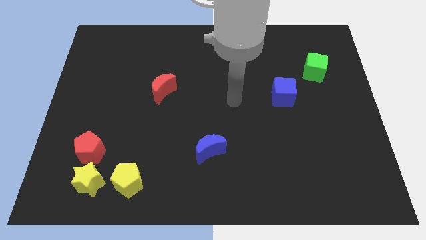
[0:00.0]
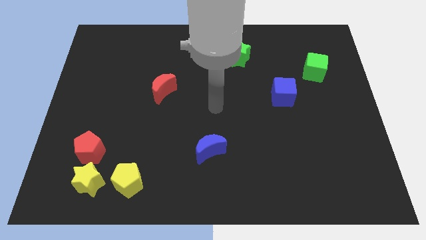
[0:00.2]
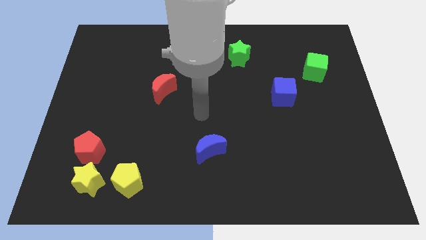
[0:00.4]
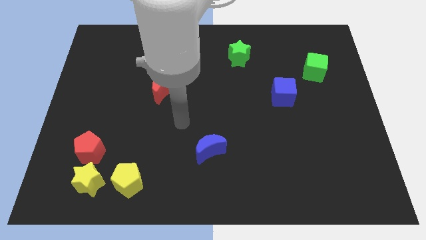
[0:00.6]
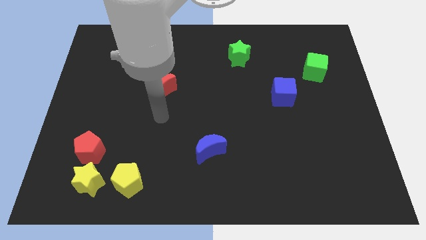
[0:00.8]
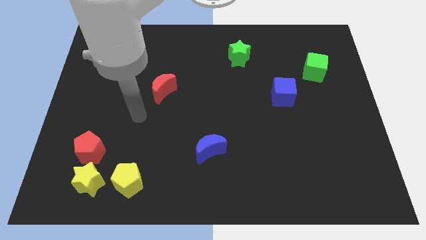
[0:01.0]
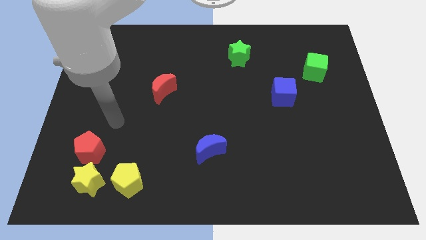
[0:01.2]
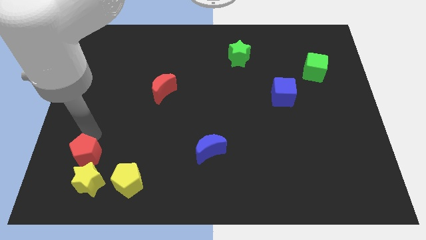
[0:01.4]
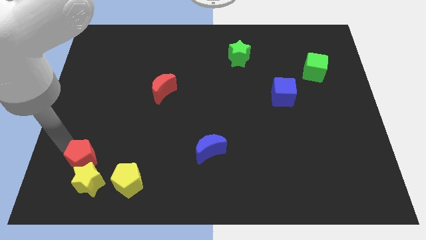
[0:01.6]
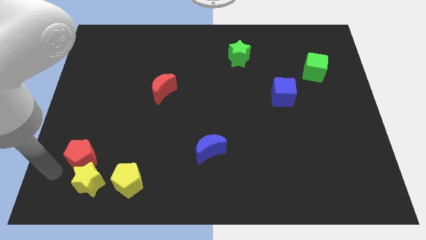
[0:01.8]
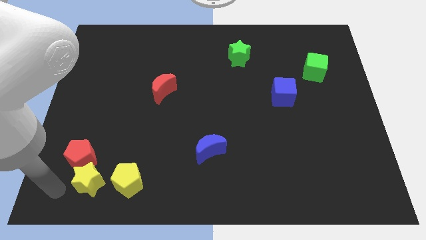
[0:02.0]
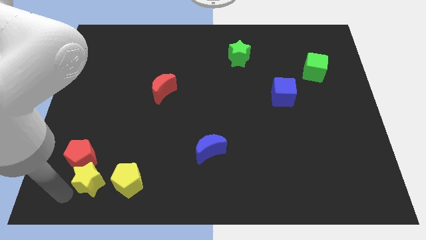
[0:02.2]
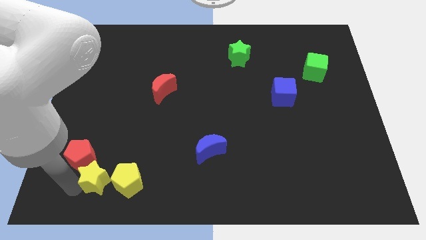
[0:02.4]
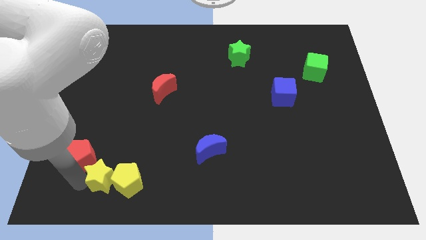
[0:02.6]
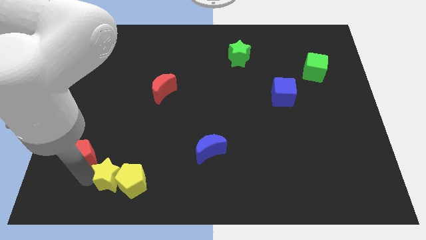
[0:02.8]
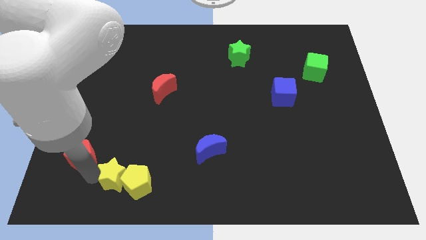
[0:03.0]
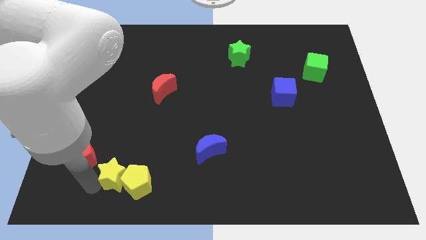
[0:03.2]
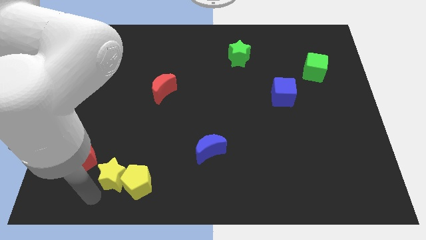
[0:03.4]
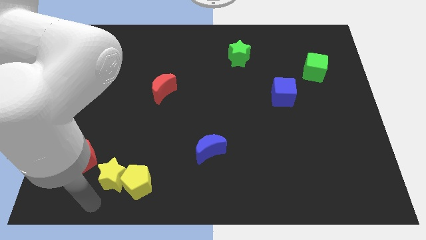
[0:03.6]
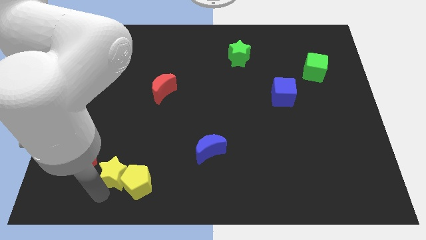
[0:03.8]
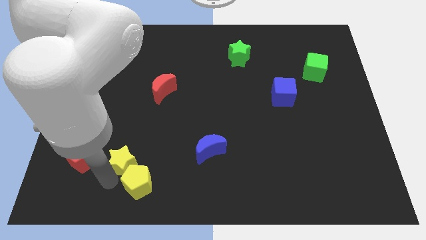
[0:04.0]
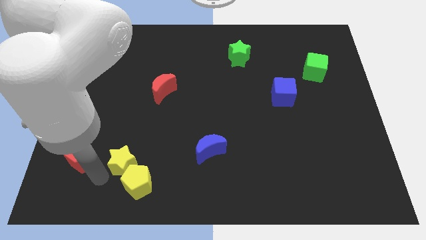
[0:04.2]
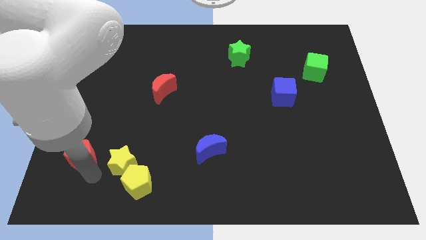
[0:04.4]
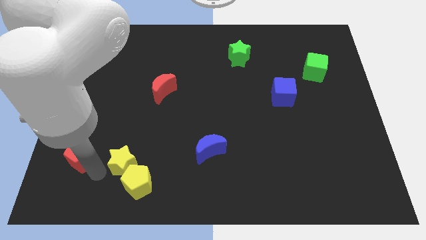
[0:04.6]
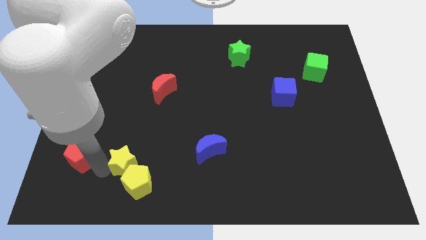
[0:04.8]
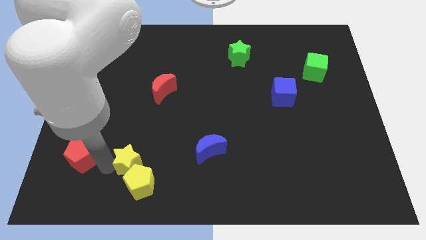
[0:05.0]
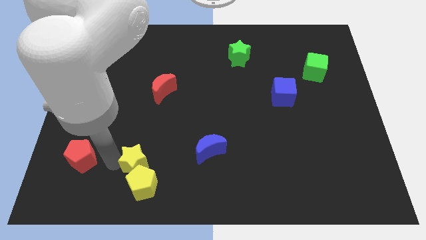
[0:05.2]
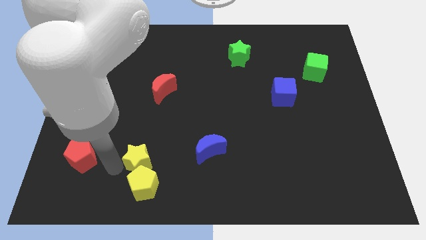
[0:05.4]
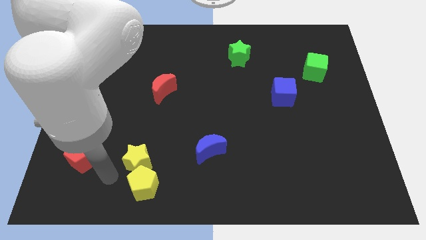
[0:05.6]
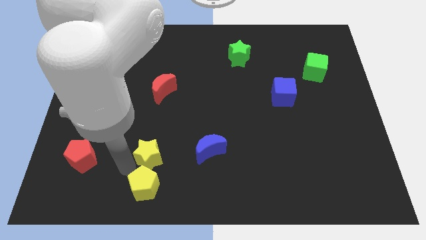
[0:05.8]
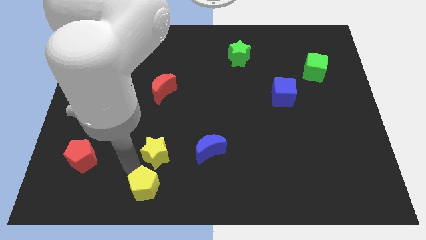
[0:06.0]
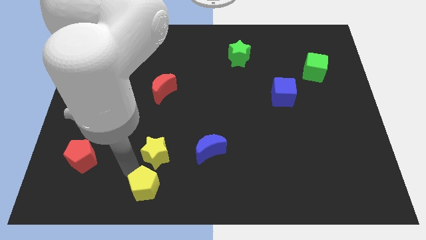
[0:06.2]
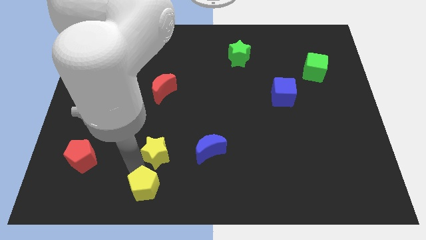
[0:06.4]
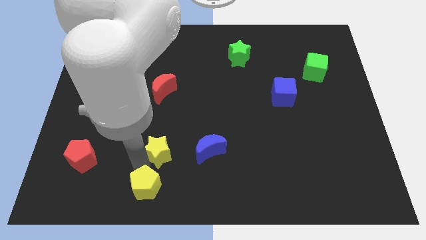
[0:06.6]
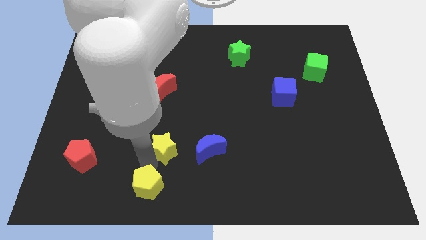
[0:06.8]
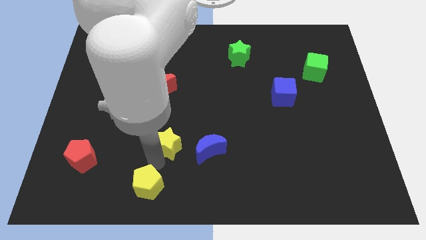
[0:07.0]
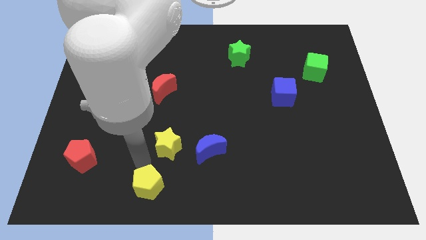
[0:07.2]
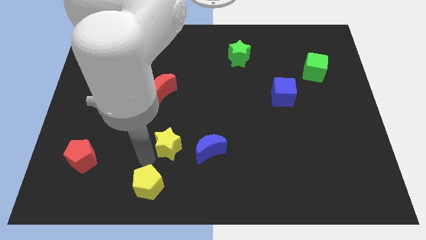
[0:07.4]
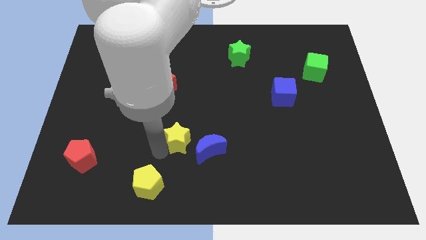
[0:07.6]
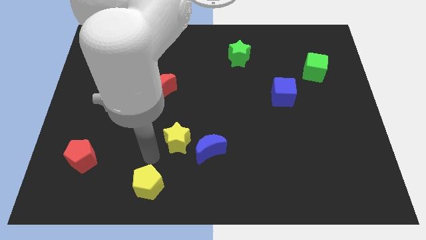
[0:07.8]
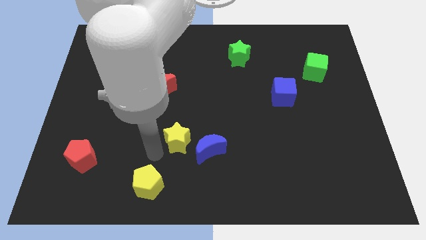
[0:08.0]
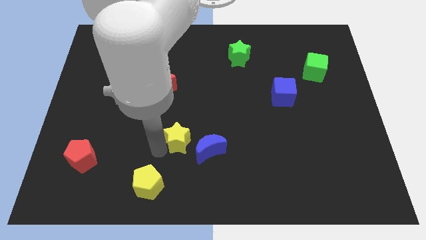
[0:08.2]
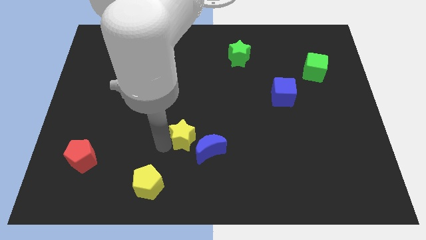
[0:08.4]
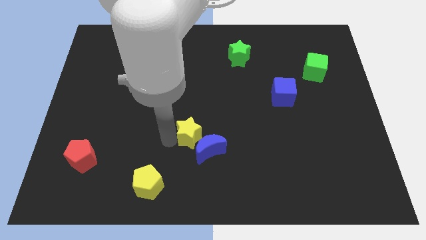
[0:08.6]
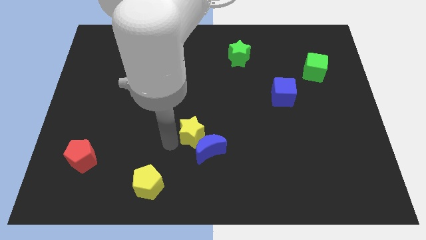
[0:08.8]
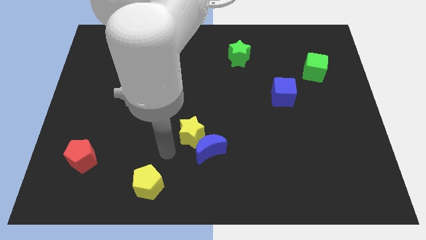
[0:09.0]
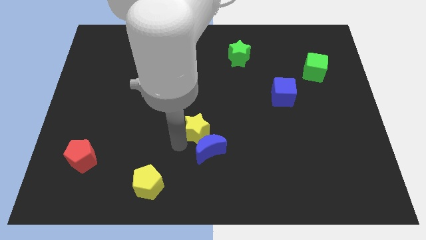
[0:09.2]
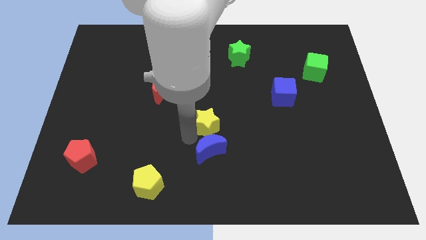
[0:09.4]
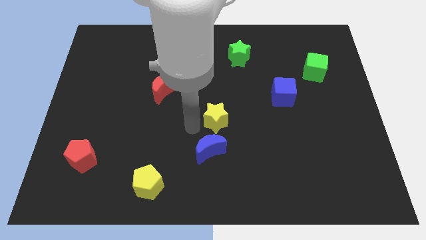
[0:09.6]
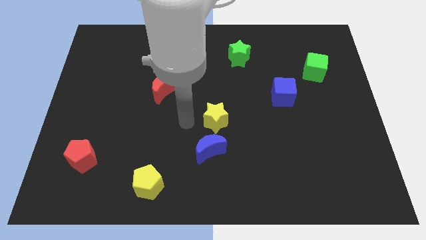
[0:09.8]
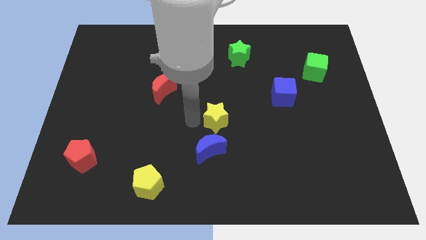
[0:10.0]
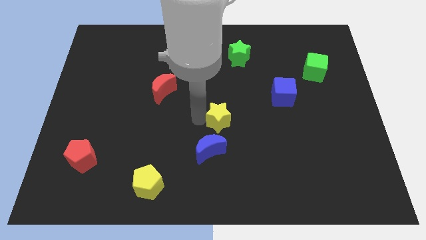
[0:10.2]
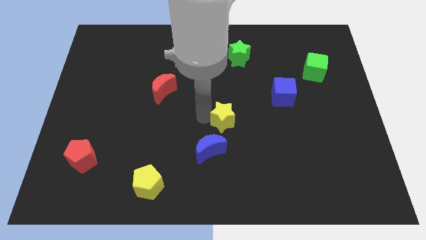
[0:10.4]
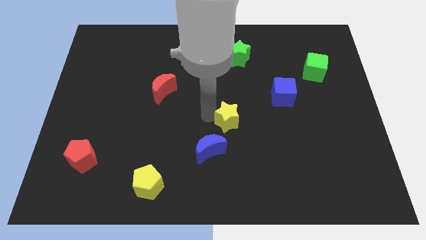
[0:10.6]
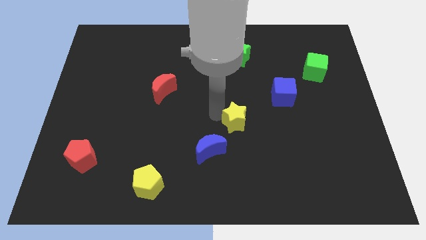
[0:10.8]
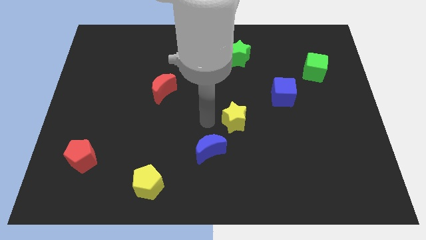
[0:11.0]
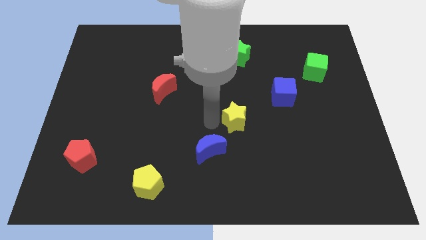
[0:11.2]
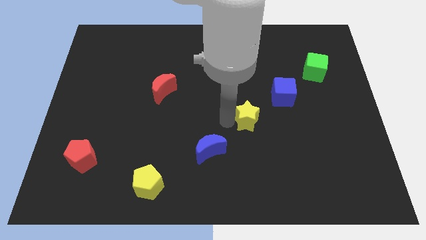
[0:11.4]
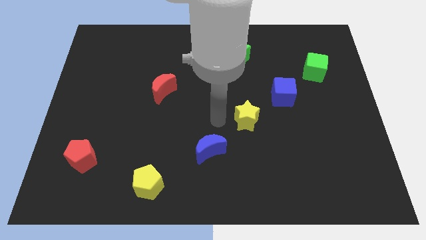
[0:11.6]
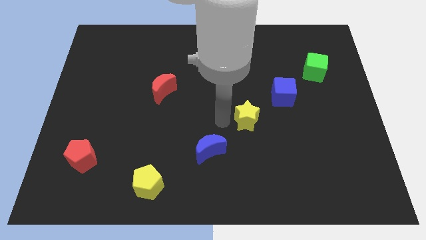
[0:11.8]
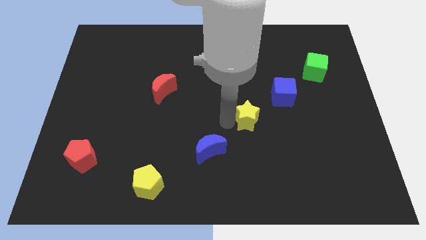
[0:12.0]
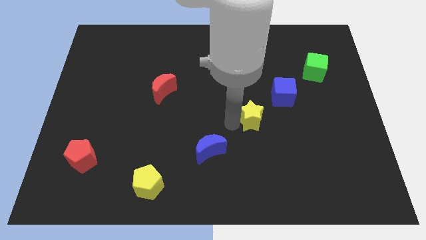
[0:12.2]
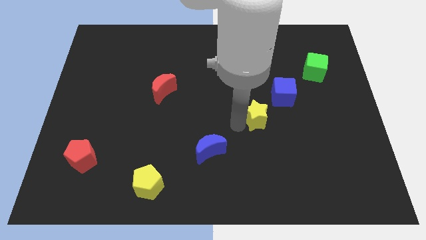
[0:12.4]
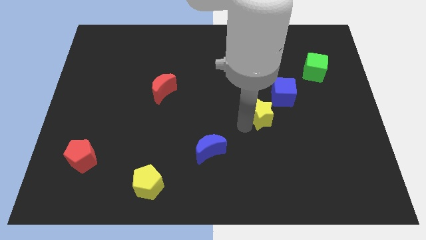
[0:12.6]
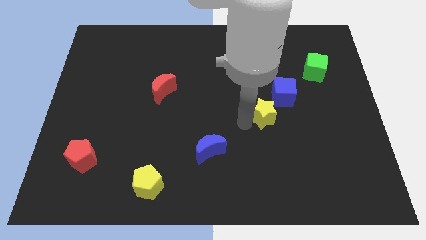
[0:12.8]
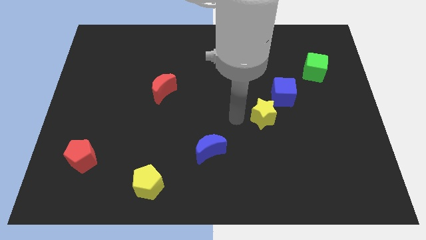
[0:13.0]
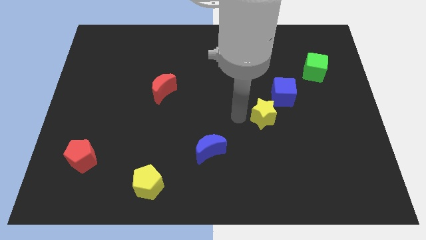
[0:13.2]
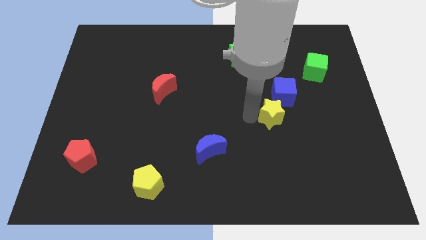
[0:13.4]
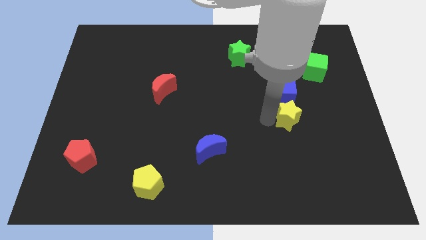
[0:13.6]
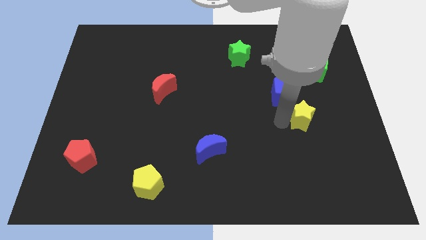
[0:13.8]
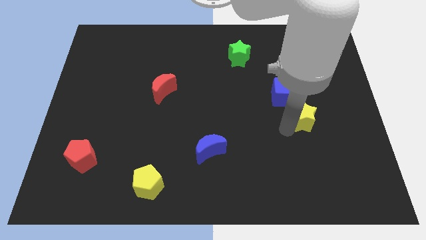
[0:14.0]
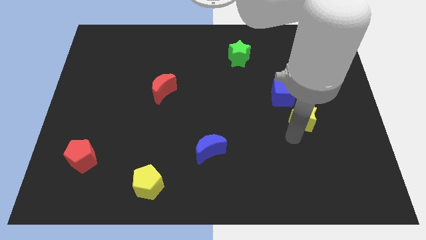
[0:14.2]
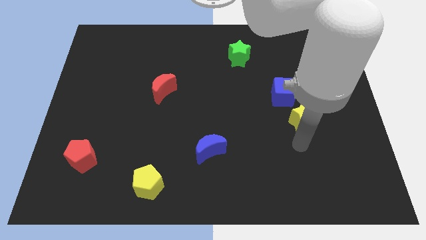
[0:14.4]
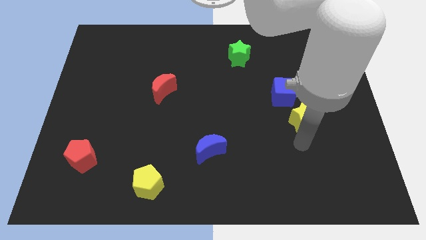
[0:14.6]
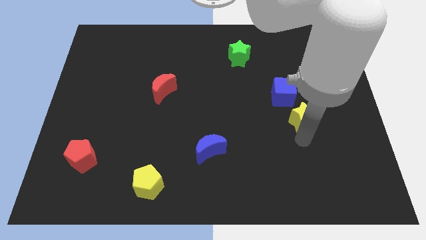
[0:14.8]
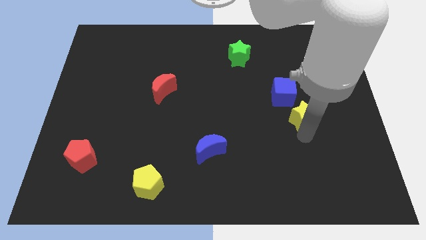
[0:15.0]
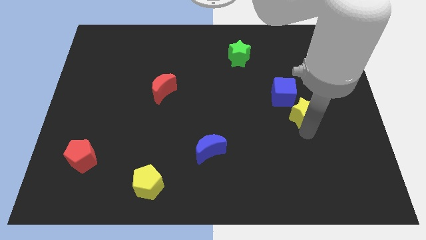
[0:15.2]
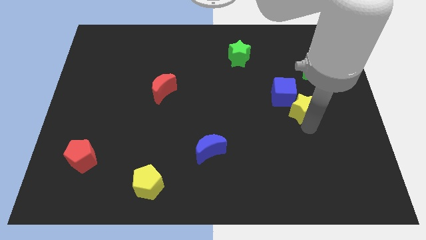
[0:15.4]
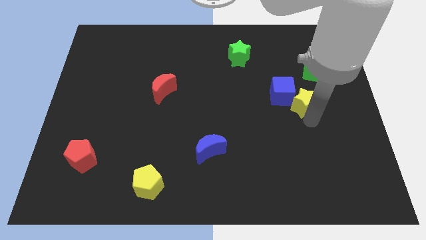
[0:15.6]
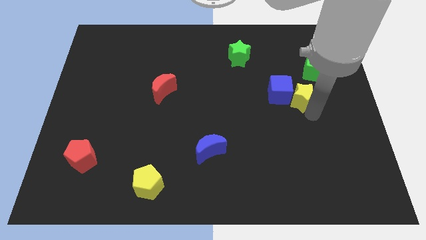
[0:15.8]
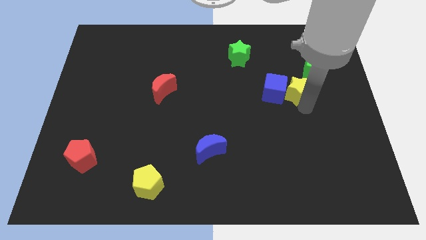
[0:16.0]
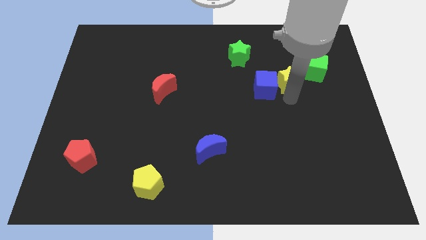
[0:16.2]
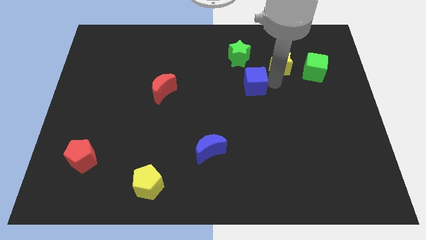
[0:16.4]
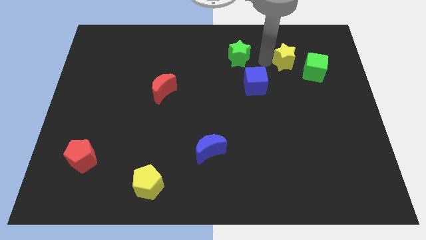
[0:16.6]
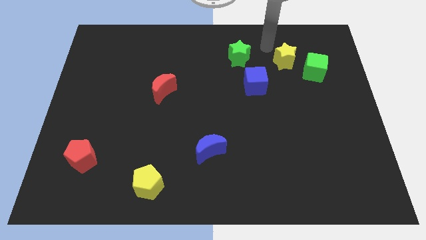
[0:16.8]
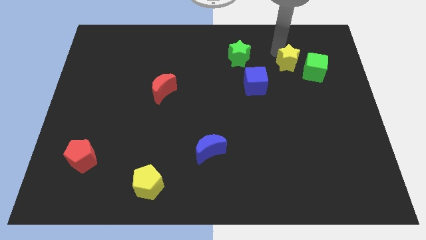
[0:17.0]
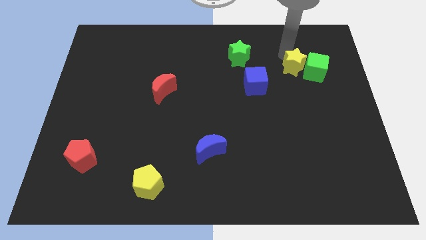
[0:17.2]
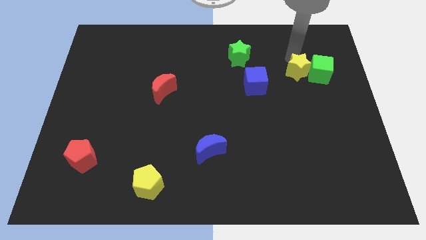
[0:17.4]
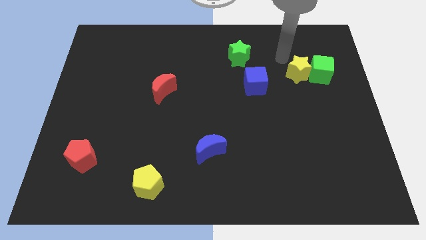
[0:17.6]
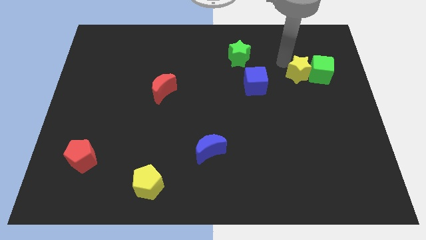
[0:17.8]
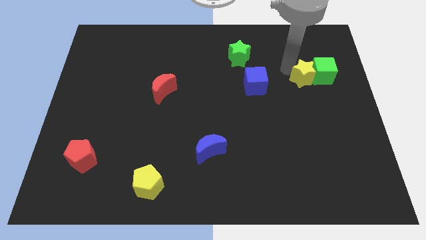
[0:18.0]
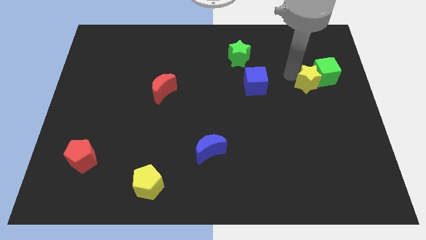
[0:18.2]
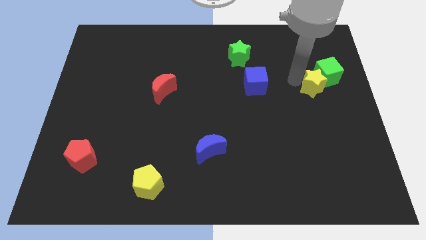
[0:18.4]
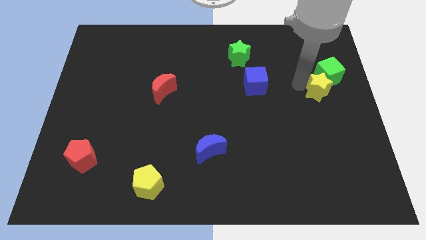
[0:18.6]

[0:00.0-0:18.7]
move the yellow star to the center right
